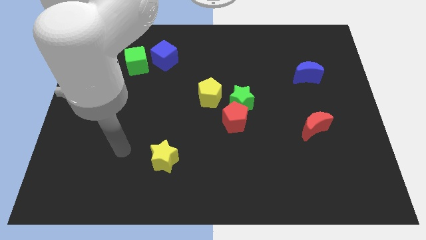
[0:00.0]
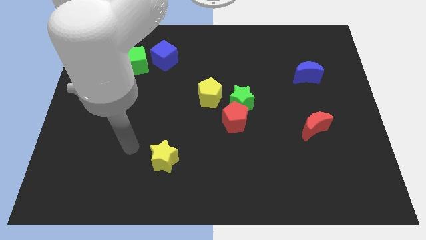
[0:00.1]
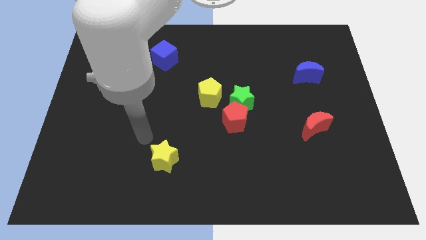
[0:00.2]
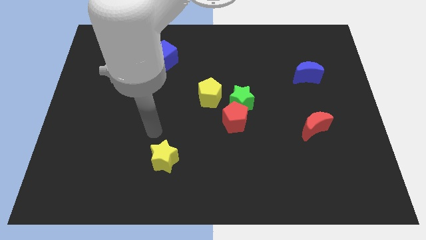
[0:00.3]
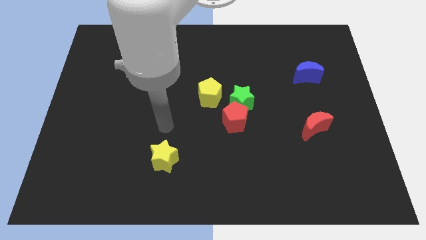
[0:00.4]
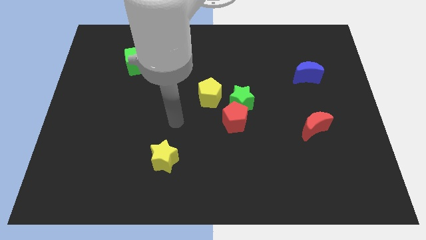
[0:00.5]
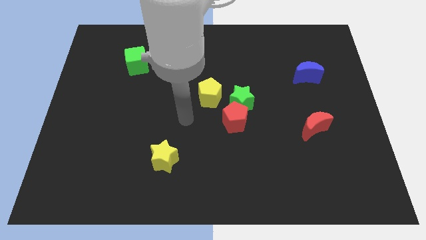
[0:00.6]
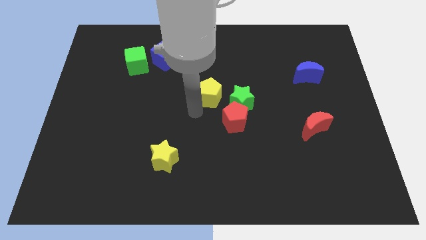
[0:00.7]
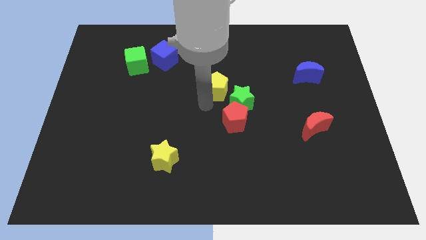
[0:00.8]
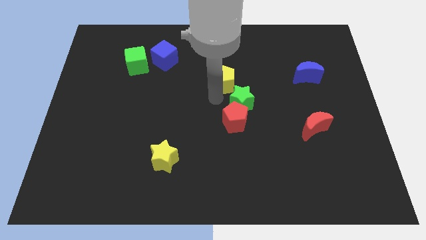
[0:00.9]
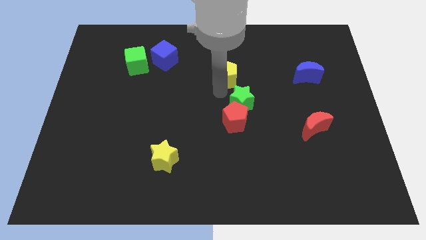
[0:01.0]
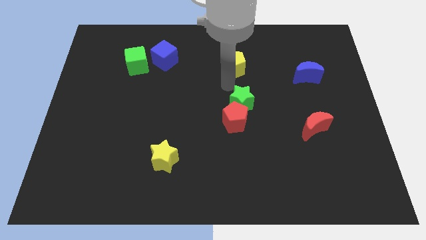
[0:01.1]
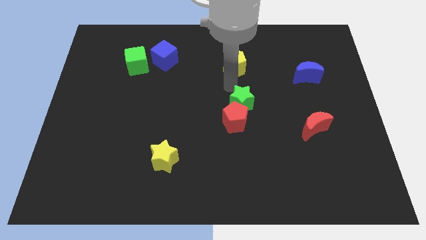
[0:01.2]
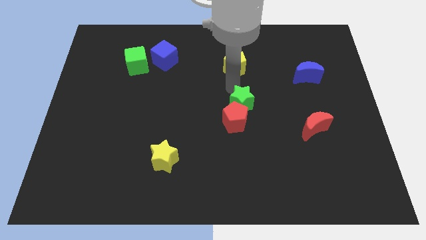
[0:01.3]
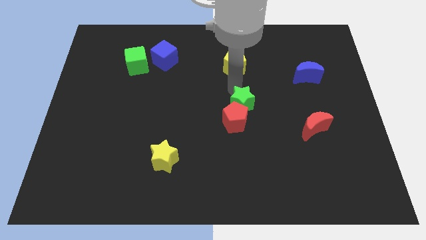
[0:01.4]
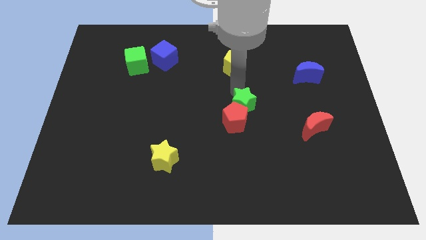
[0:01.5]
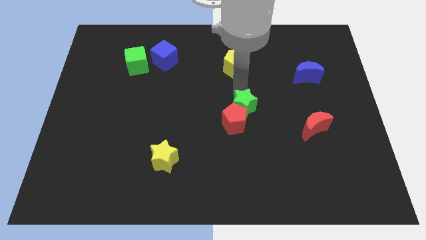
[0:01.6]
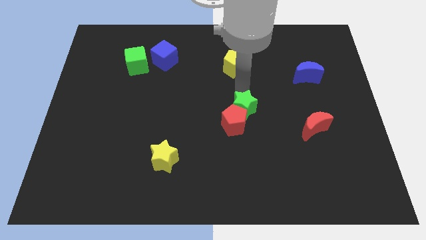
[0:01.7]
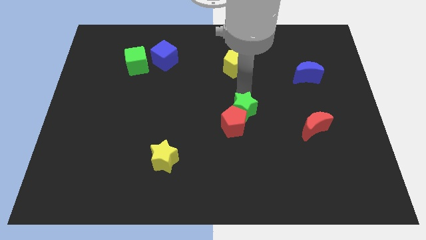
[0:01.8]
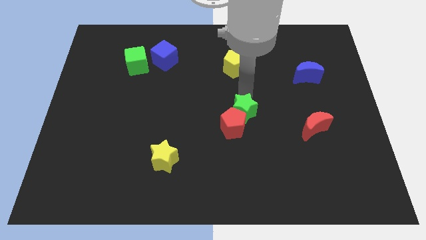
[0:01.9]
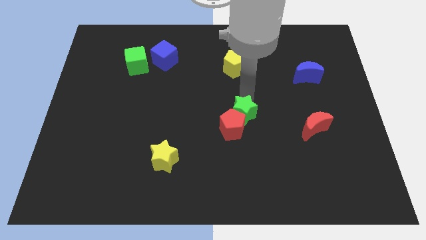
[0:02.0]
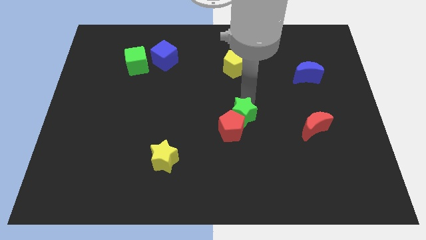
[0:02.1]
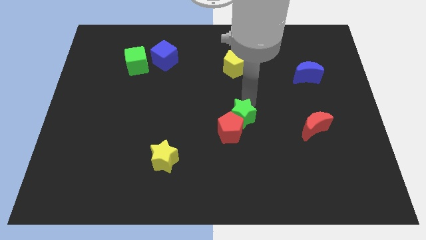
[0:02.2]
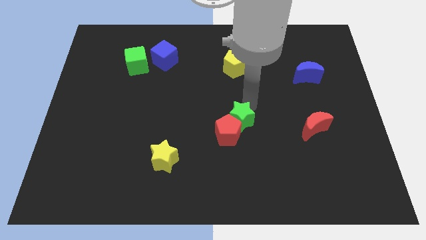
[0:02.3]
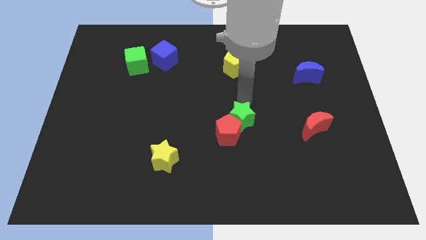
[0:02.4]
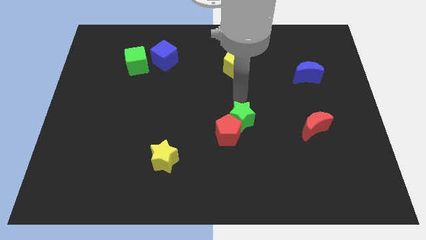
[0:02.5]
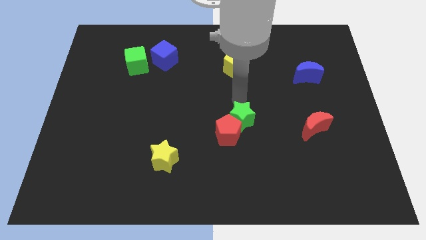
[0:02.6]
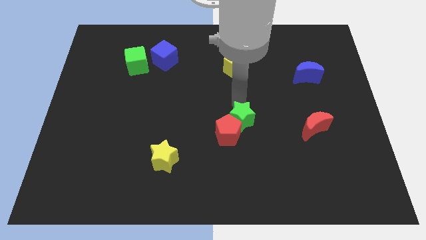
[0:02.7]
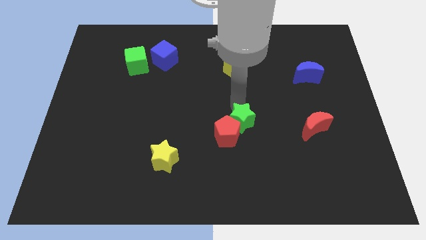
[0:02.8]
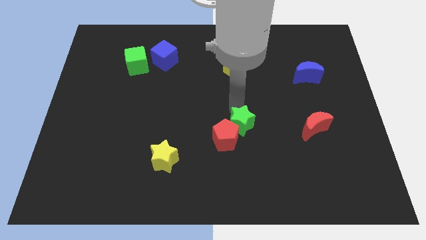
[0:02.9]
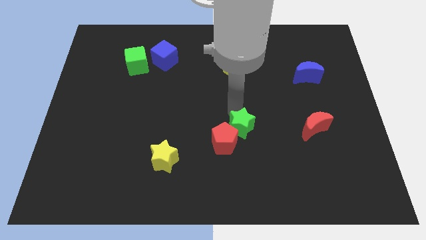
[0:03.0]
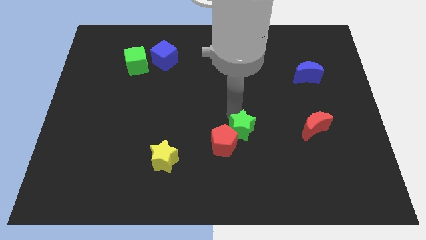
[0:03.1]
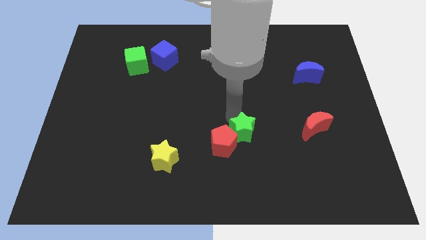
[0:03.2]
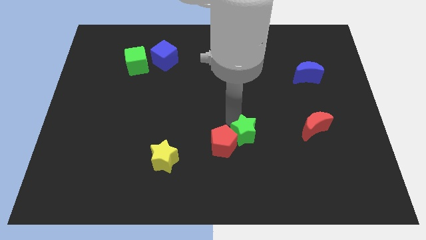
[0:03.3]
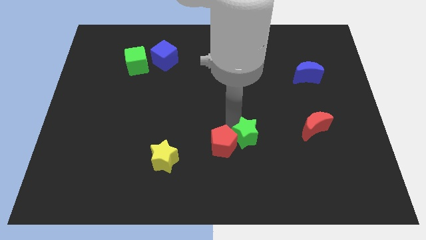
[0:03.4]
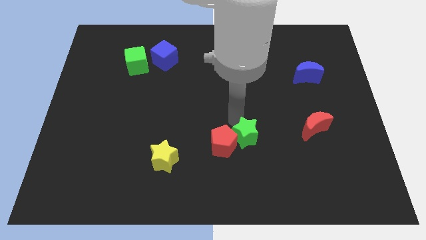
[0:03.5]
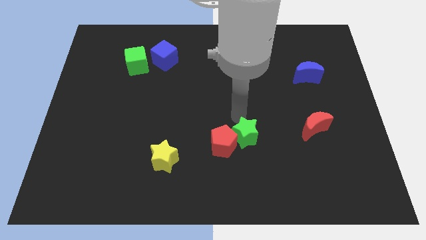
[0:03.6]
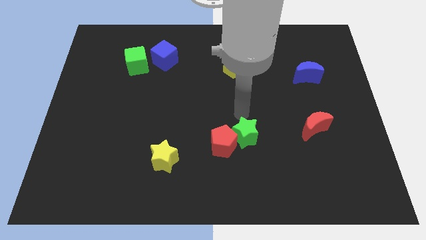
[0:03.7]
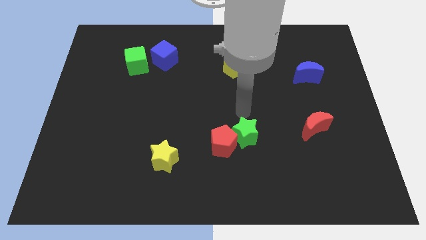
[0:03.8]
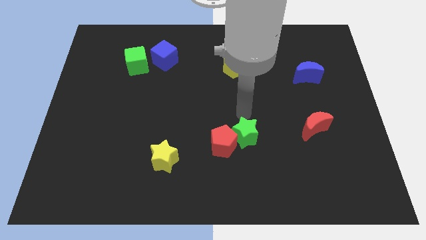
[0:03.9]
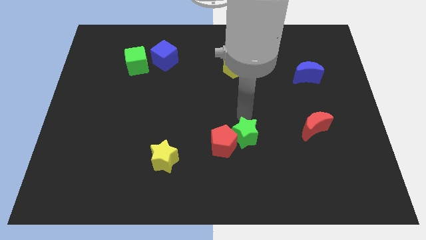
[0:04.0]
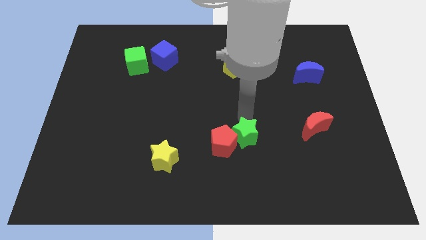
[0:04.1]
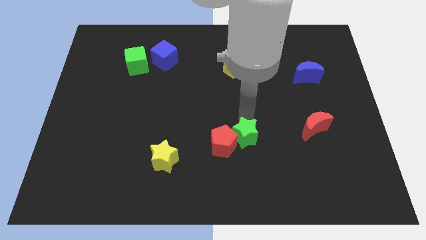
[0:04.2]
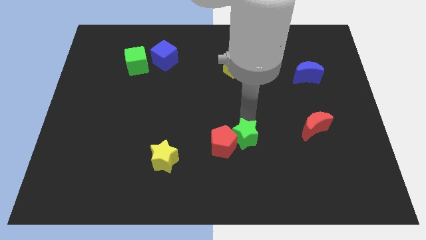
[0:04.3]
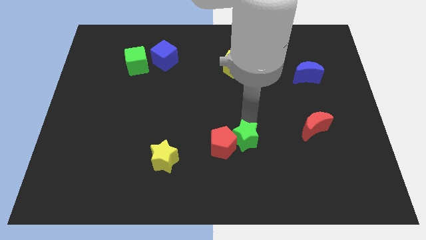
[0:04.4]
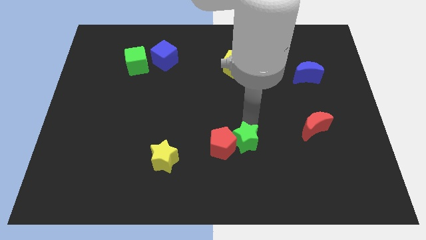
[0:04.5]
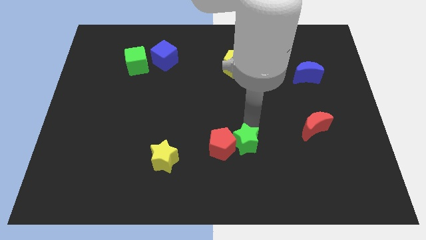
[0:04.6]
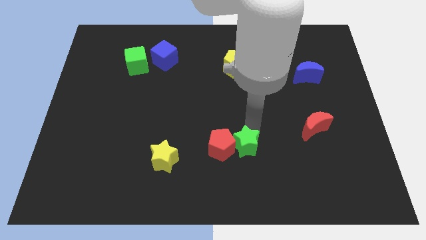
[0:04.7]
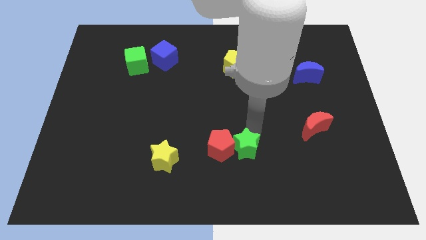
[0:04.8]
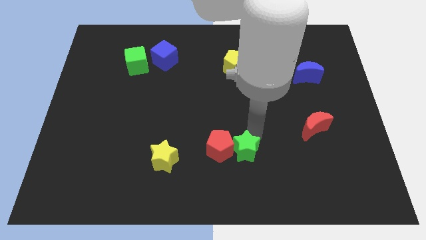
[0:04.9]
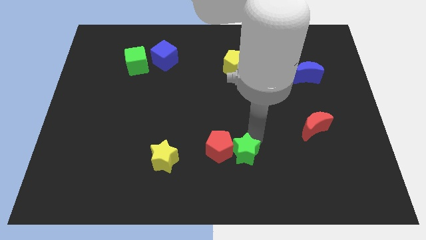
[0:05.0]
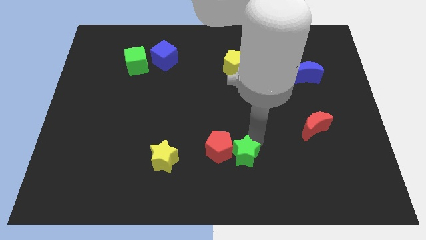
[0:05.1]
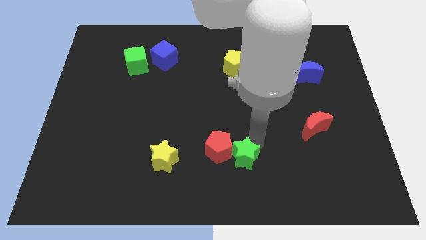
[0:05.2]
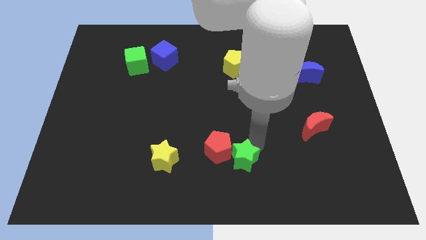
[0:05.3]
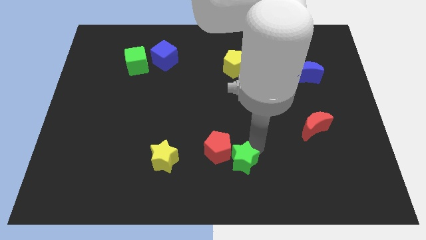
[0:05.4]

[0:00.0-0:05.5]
move the green star to the bottom side

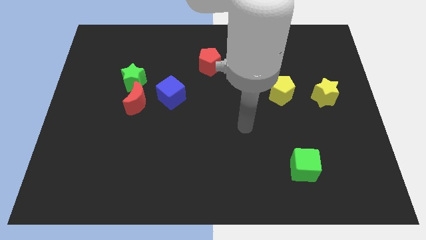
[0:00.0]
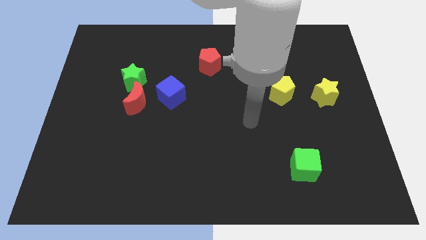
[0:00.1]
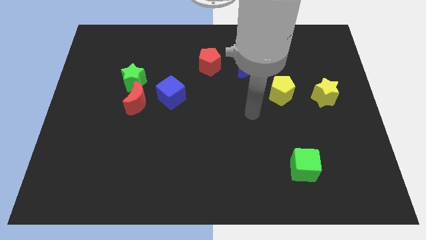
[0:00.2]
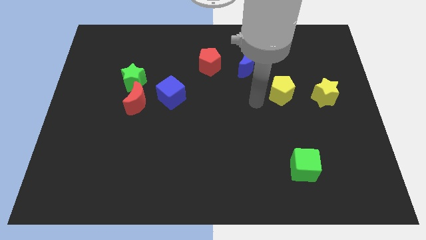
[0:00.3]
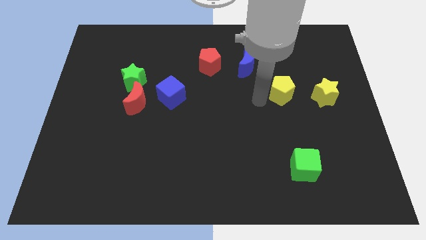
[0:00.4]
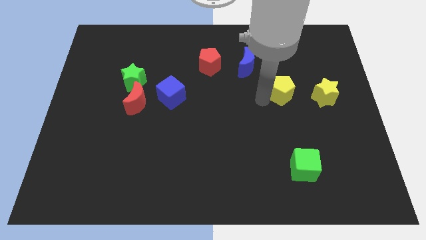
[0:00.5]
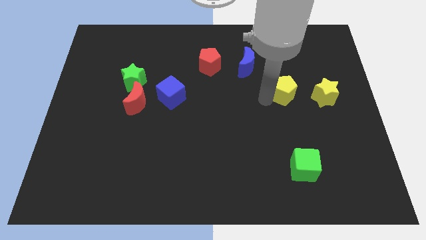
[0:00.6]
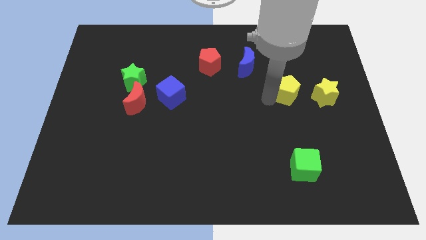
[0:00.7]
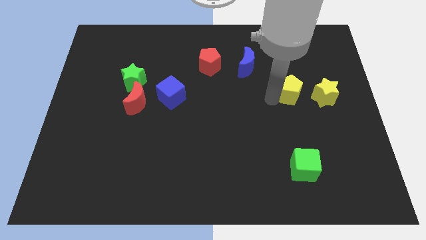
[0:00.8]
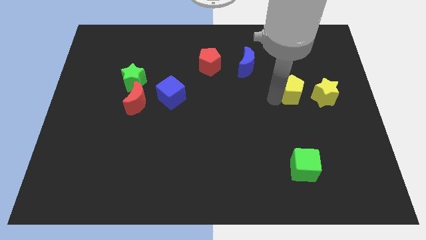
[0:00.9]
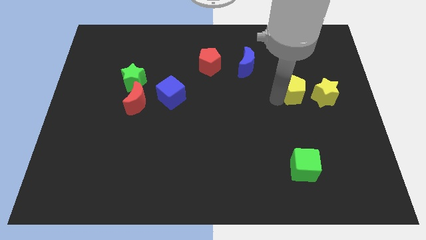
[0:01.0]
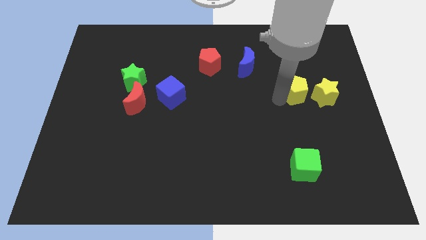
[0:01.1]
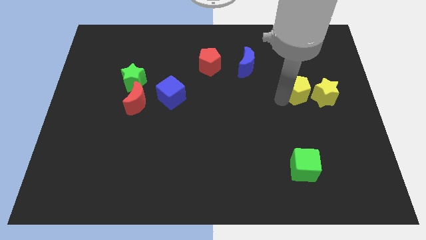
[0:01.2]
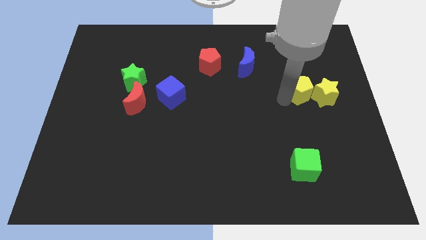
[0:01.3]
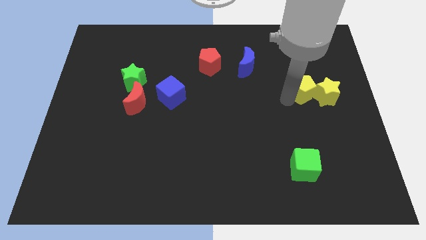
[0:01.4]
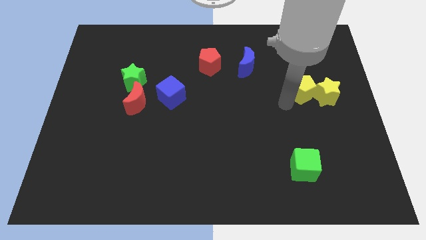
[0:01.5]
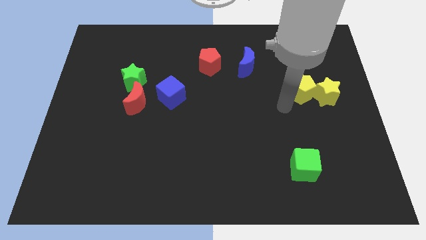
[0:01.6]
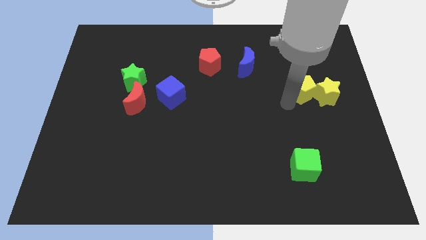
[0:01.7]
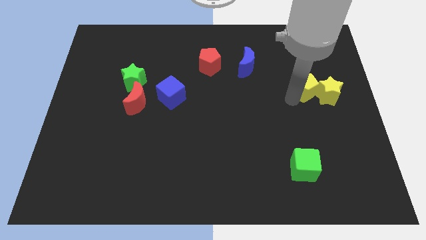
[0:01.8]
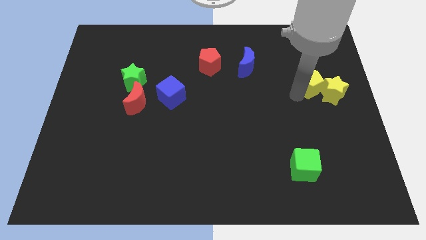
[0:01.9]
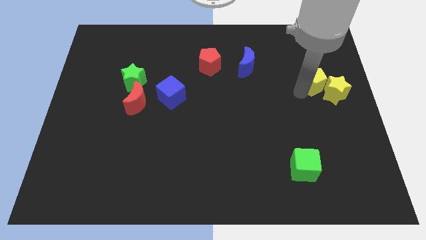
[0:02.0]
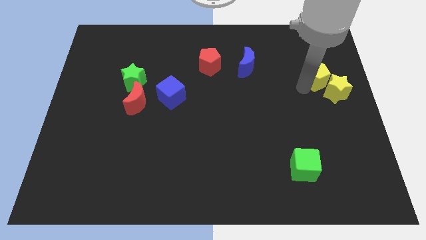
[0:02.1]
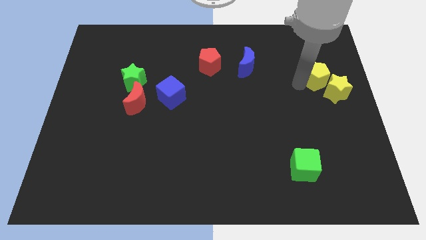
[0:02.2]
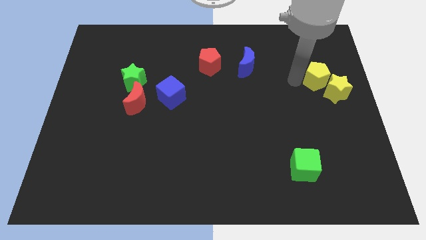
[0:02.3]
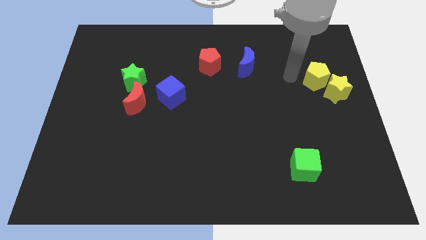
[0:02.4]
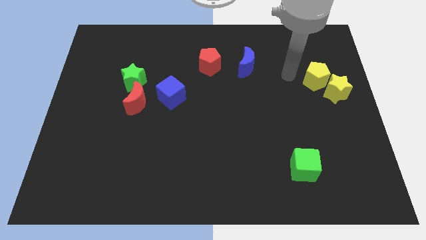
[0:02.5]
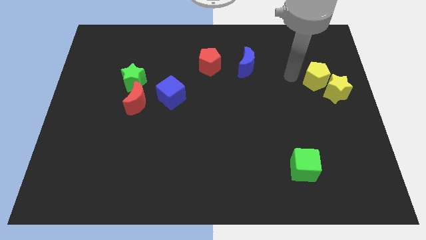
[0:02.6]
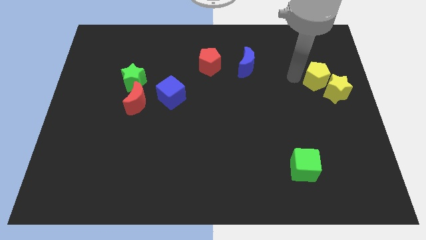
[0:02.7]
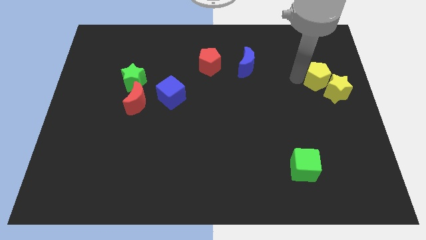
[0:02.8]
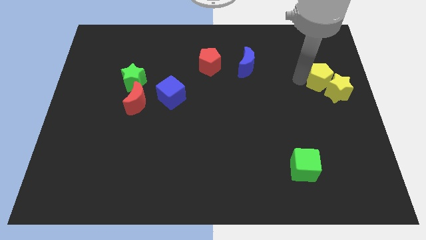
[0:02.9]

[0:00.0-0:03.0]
push the yellow pentagon to the center right
